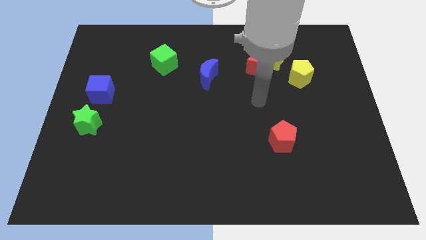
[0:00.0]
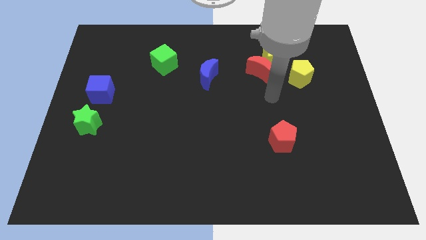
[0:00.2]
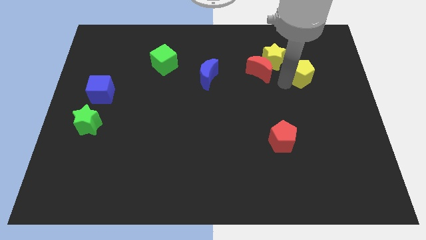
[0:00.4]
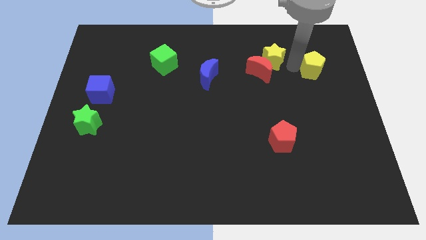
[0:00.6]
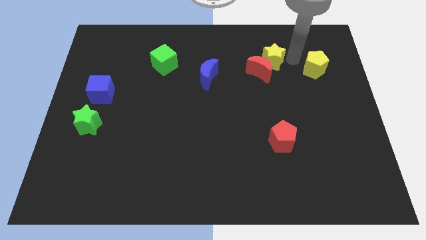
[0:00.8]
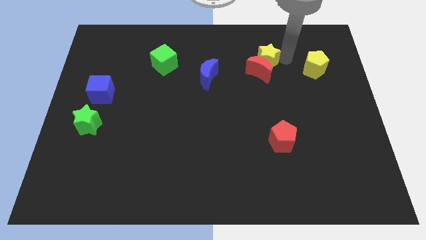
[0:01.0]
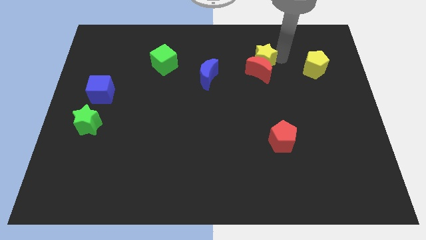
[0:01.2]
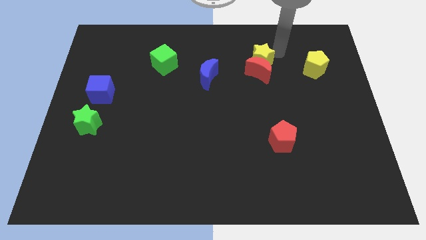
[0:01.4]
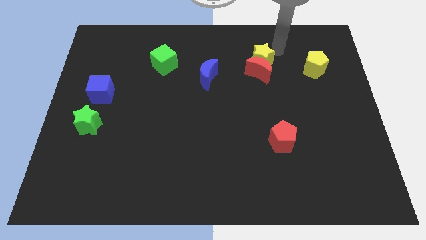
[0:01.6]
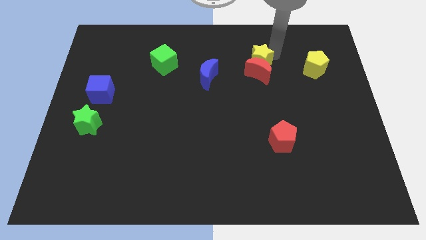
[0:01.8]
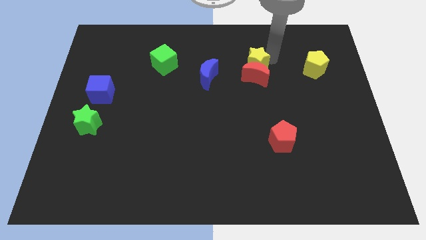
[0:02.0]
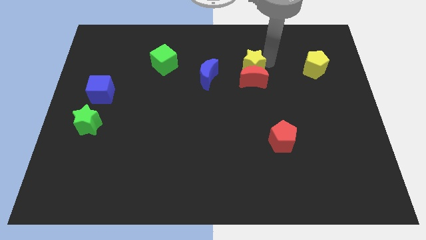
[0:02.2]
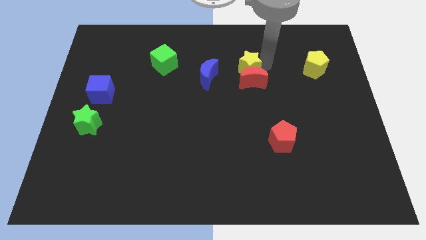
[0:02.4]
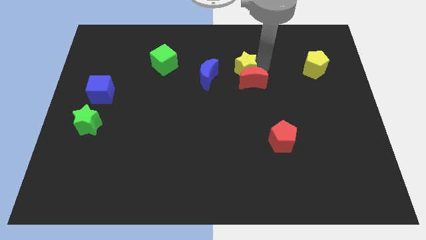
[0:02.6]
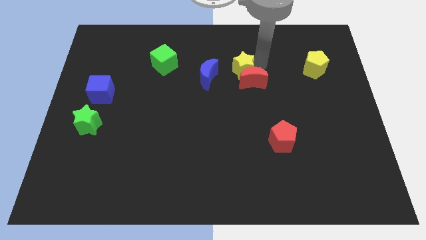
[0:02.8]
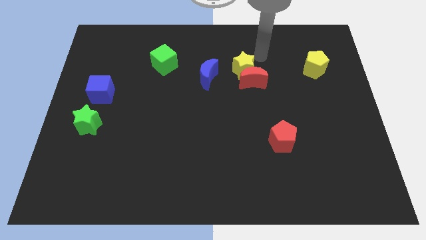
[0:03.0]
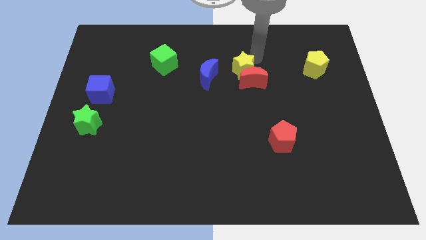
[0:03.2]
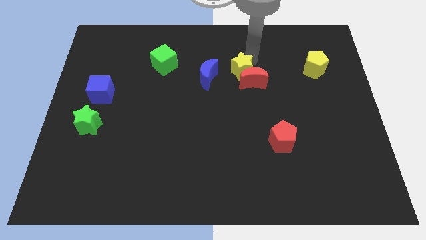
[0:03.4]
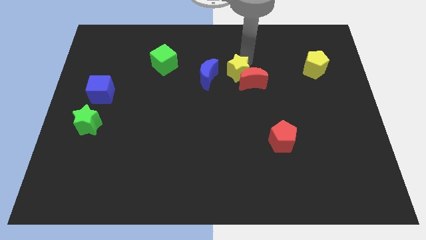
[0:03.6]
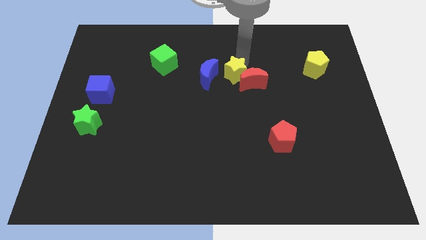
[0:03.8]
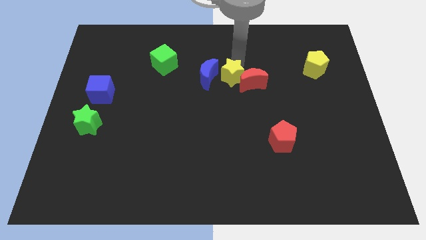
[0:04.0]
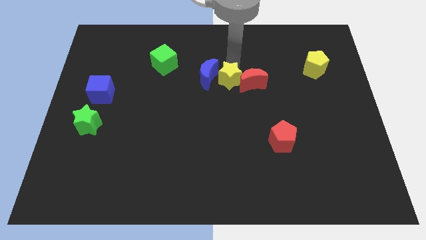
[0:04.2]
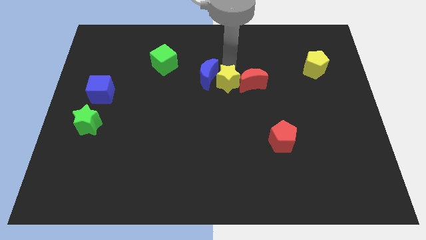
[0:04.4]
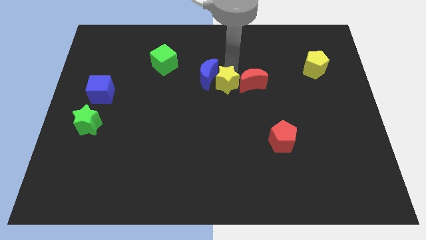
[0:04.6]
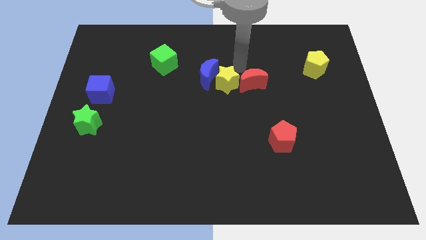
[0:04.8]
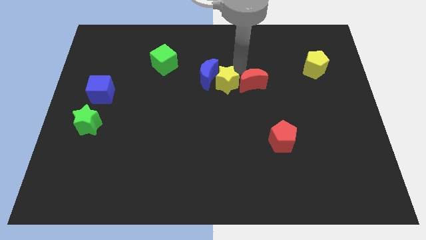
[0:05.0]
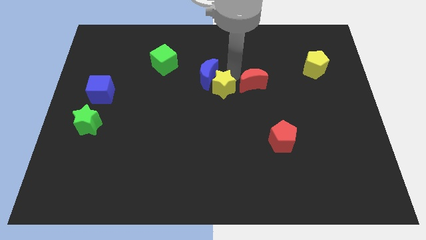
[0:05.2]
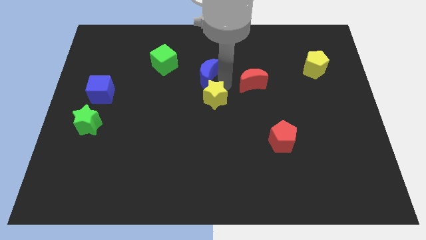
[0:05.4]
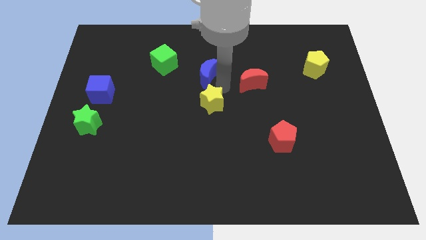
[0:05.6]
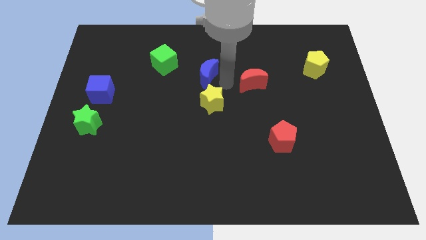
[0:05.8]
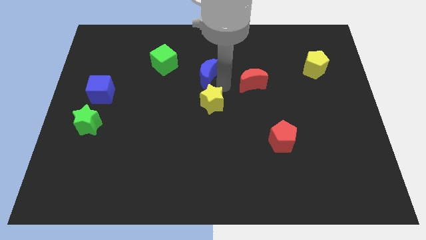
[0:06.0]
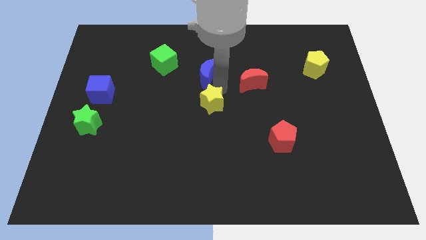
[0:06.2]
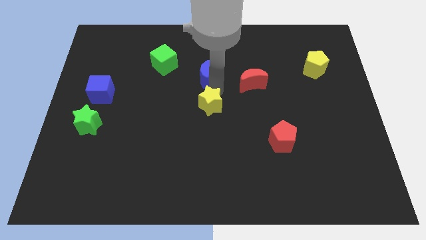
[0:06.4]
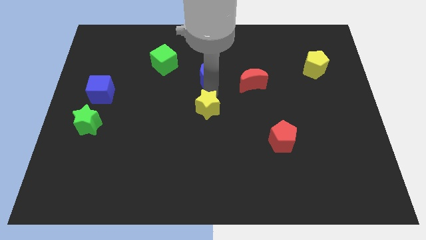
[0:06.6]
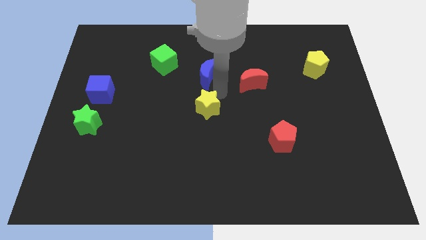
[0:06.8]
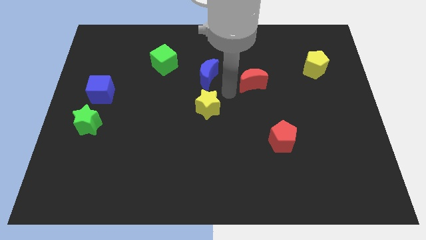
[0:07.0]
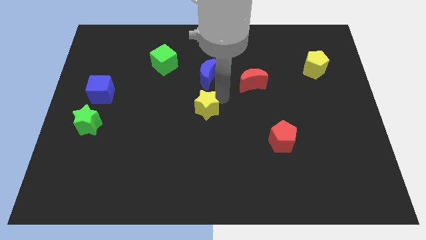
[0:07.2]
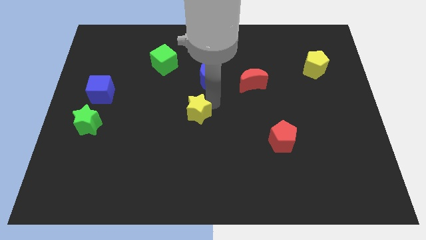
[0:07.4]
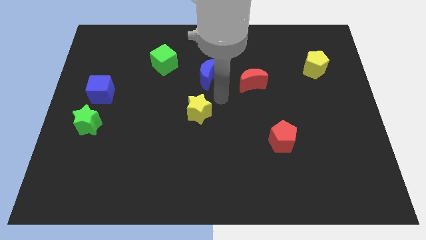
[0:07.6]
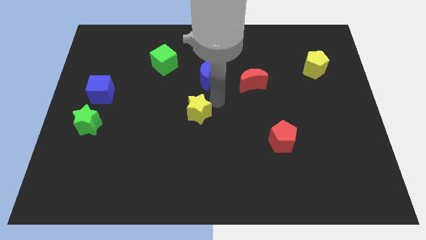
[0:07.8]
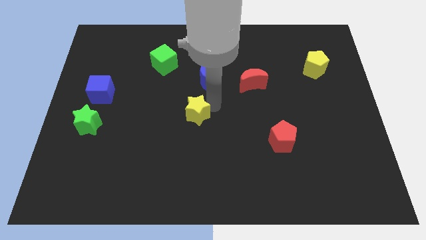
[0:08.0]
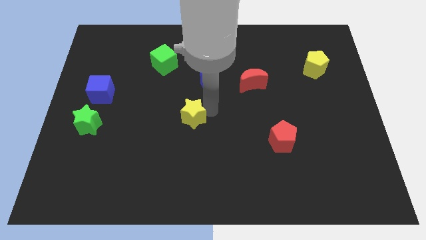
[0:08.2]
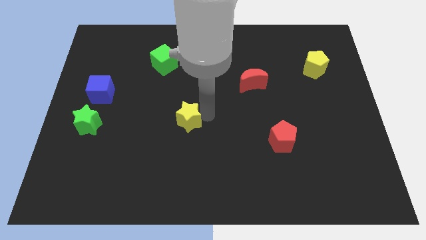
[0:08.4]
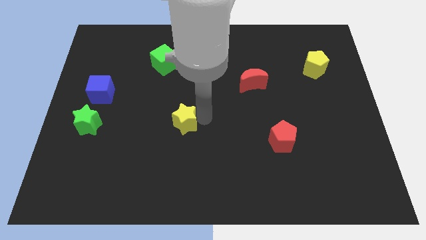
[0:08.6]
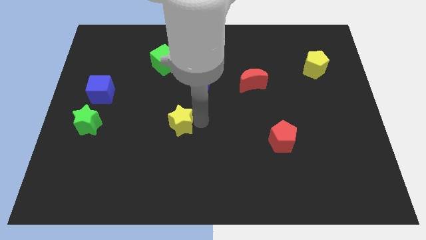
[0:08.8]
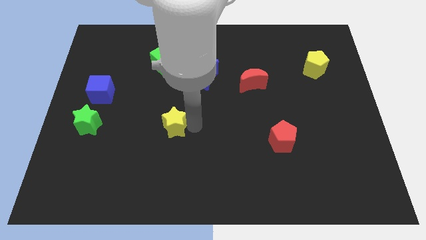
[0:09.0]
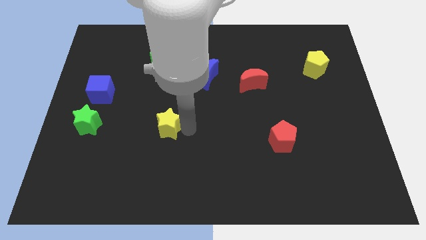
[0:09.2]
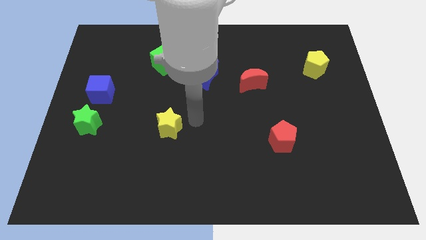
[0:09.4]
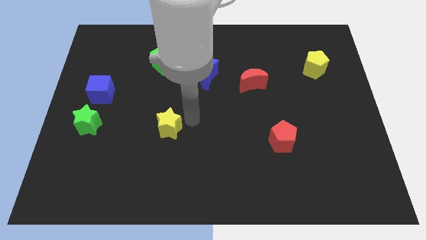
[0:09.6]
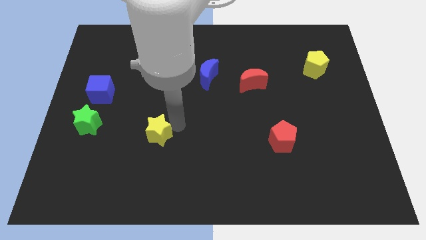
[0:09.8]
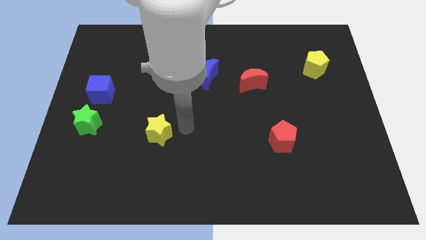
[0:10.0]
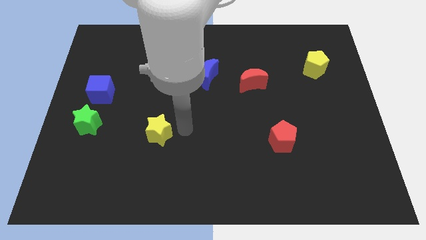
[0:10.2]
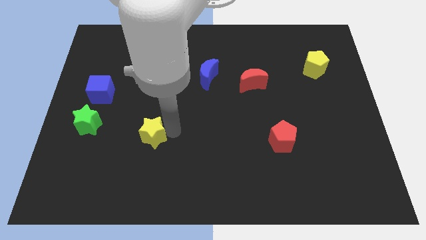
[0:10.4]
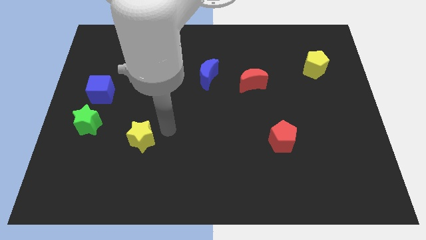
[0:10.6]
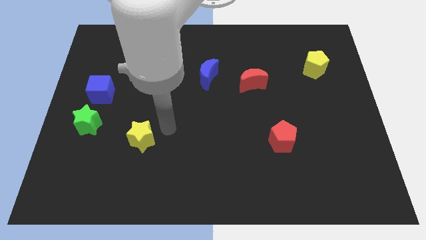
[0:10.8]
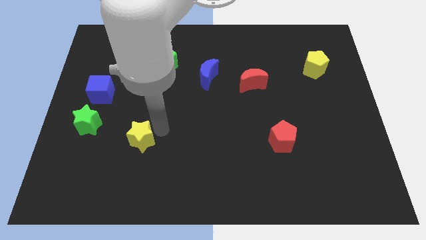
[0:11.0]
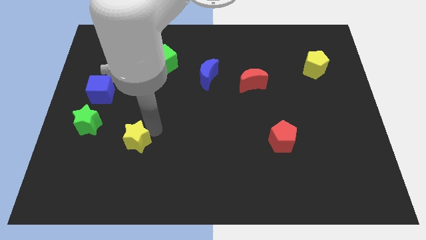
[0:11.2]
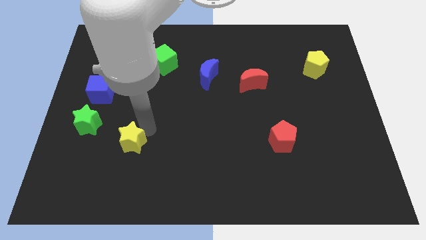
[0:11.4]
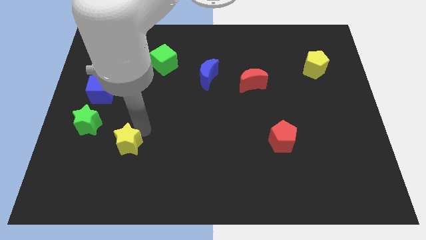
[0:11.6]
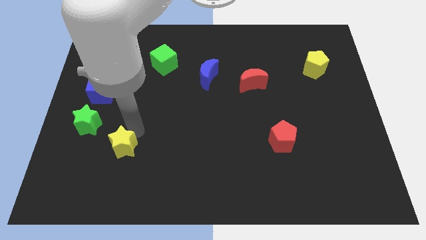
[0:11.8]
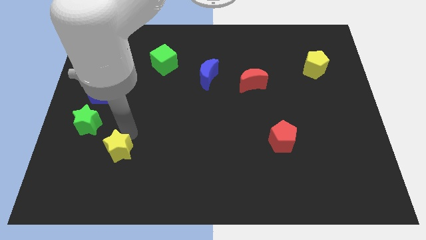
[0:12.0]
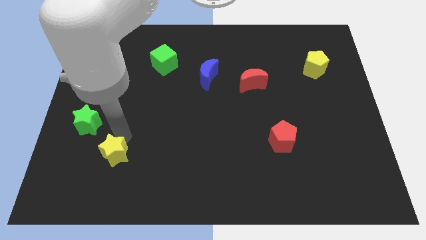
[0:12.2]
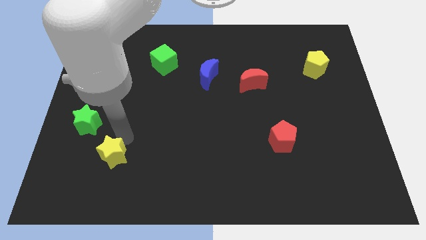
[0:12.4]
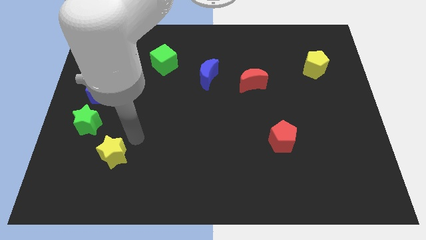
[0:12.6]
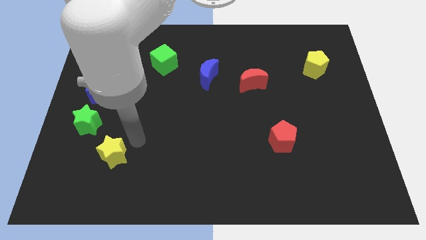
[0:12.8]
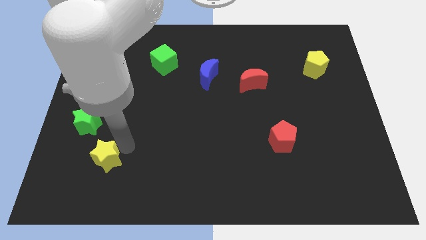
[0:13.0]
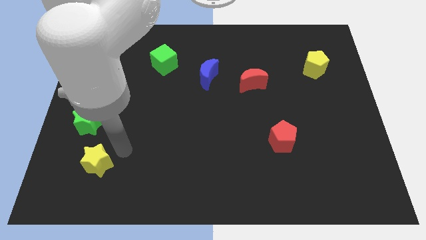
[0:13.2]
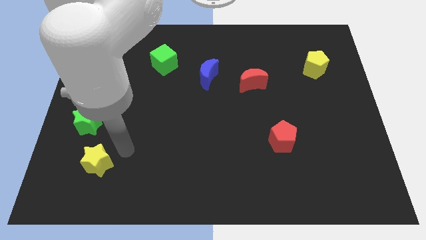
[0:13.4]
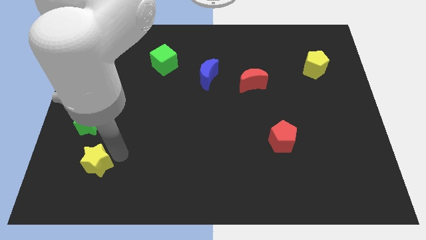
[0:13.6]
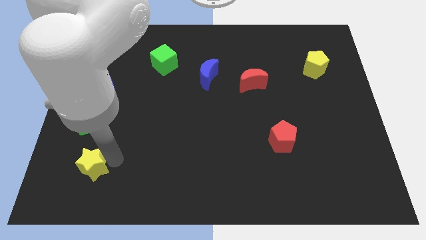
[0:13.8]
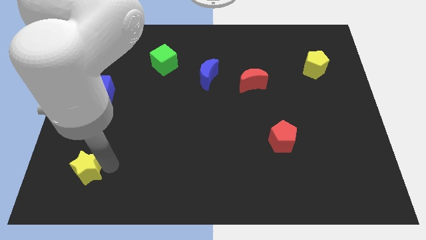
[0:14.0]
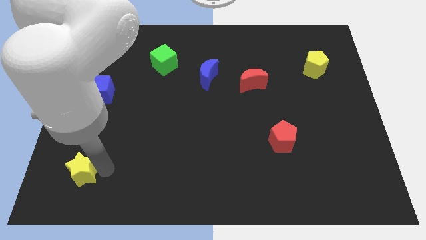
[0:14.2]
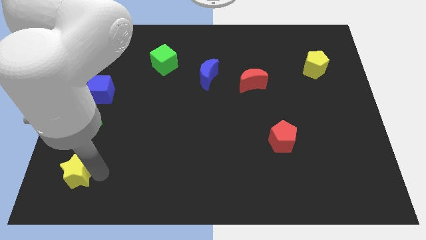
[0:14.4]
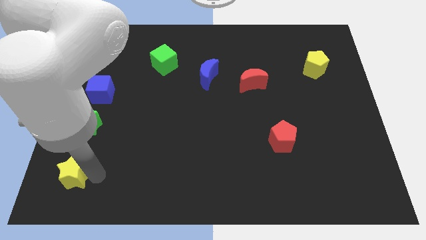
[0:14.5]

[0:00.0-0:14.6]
slide the yellow star to the lower left corner
